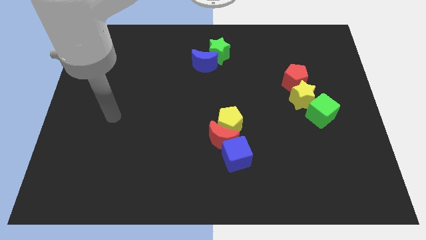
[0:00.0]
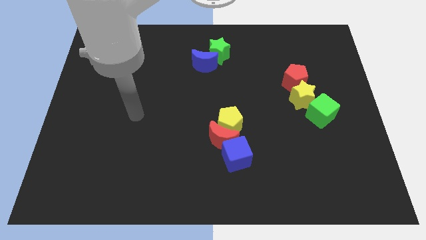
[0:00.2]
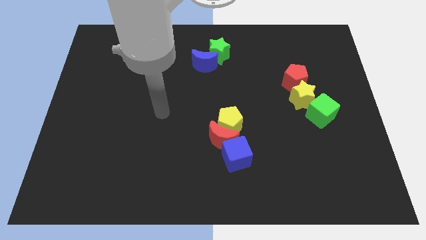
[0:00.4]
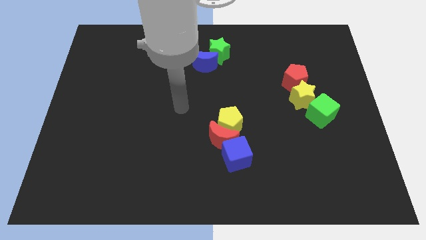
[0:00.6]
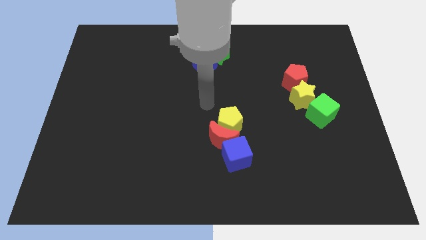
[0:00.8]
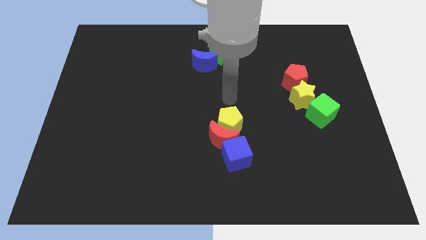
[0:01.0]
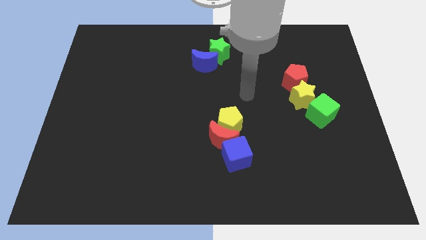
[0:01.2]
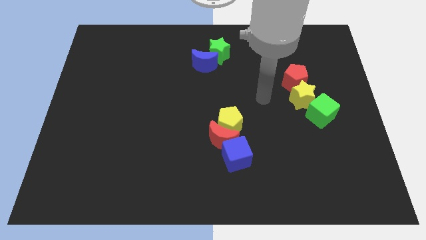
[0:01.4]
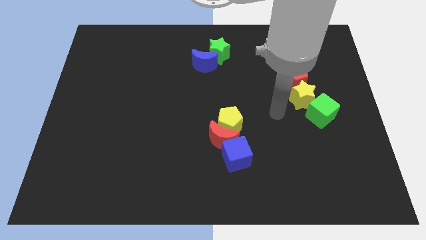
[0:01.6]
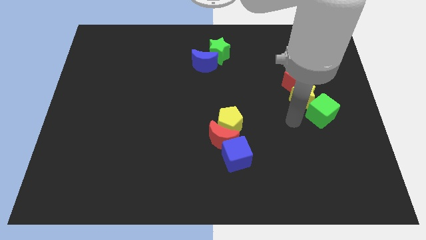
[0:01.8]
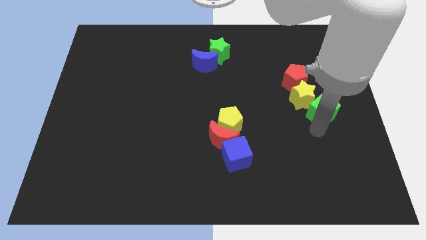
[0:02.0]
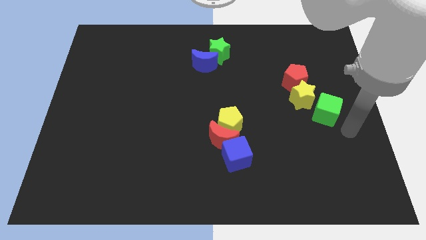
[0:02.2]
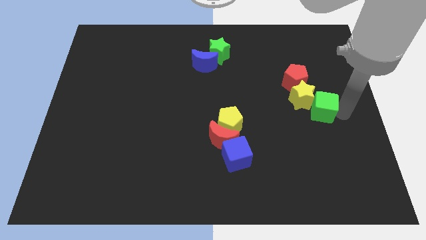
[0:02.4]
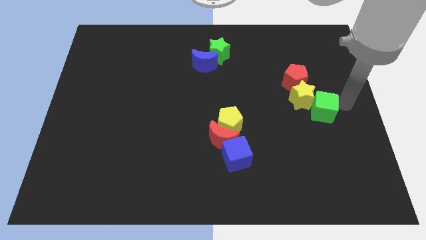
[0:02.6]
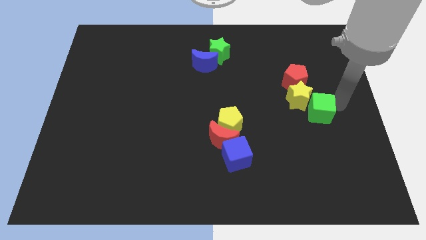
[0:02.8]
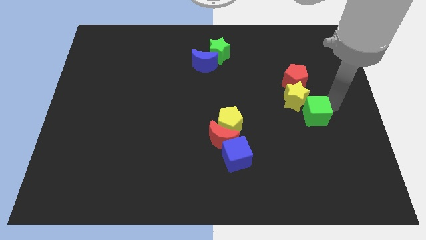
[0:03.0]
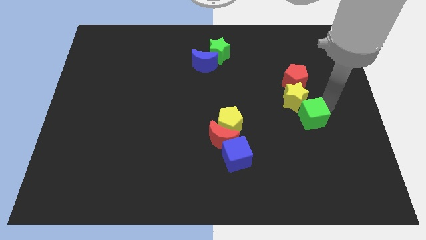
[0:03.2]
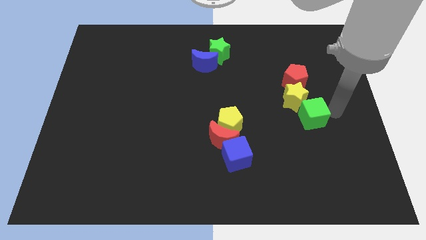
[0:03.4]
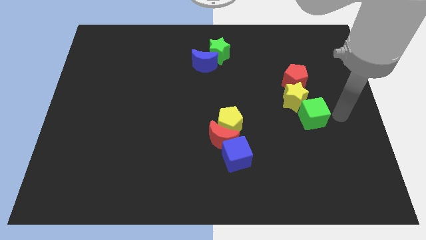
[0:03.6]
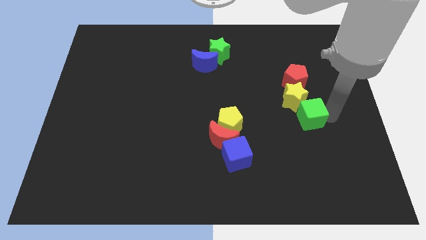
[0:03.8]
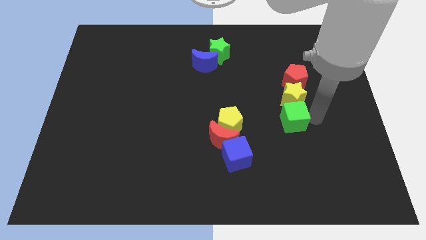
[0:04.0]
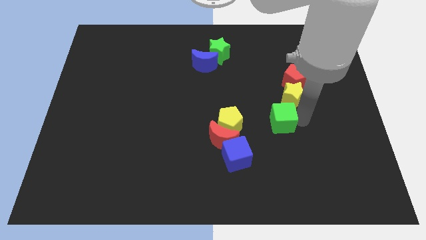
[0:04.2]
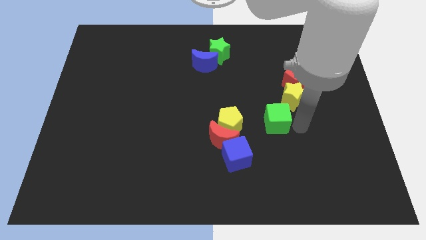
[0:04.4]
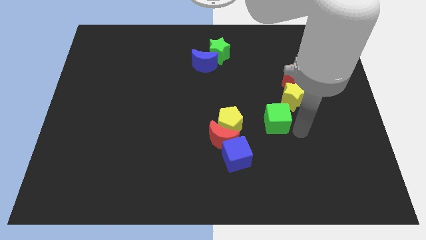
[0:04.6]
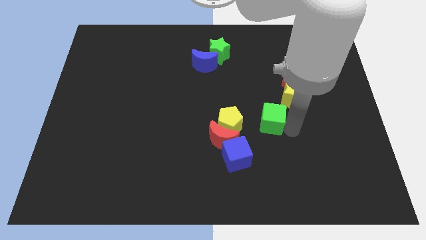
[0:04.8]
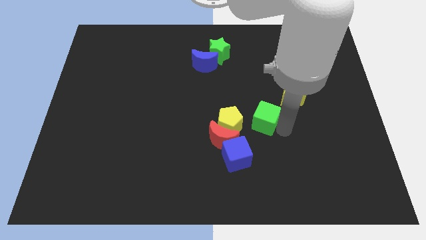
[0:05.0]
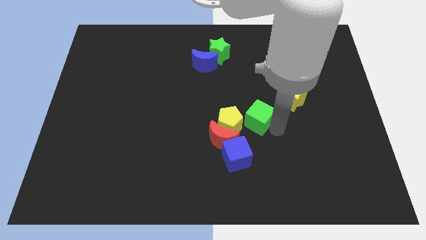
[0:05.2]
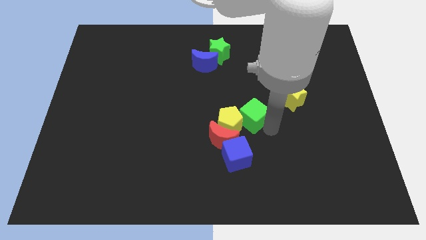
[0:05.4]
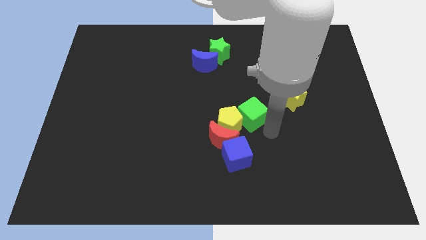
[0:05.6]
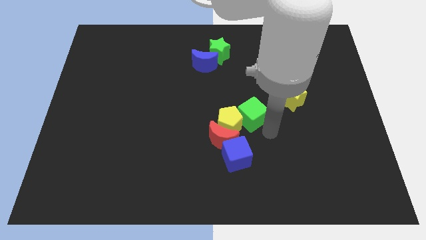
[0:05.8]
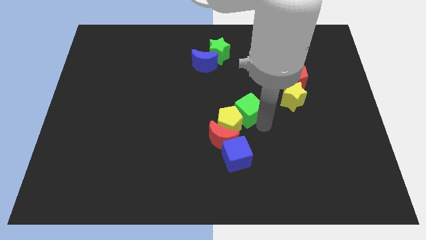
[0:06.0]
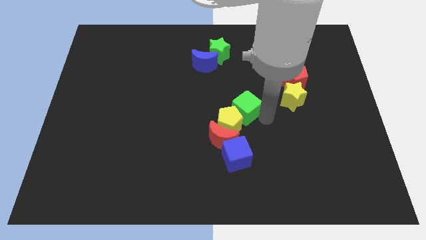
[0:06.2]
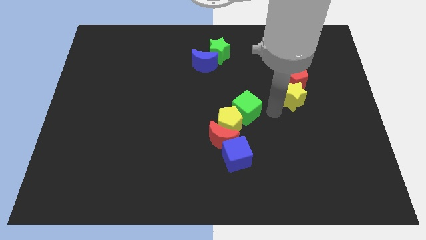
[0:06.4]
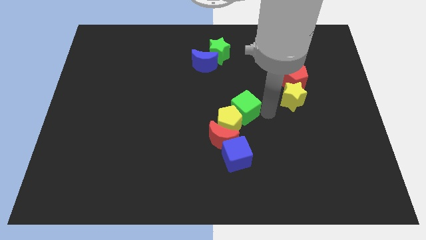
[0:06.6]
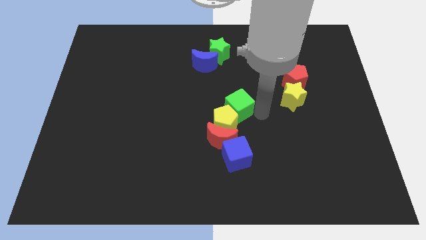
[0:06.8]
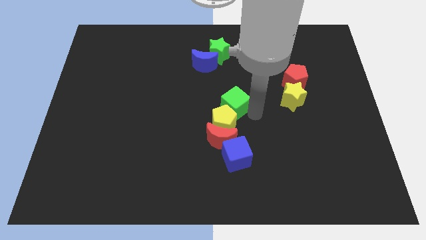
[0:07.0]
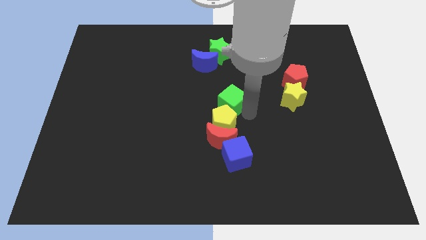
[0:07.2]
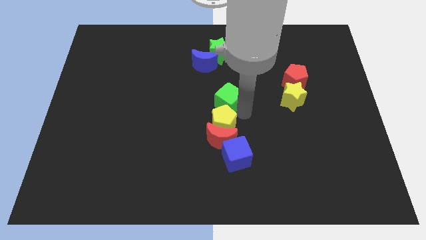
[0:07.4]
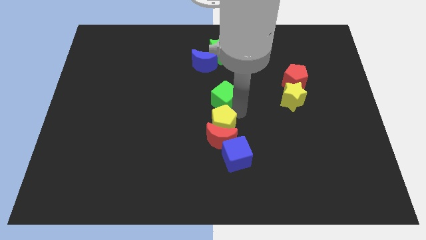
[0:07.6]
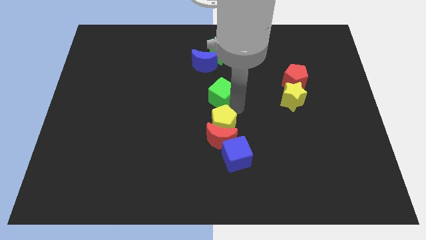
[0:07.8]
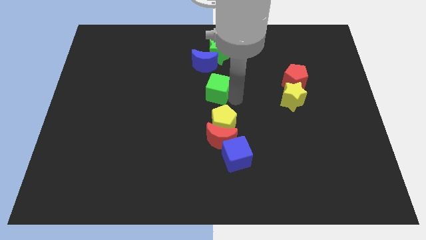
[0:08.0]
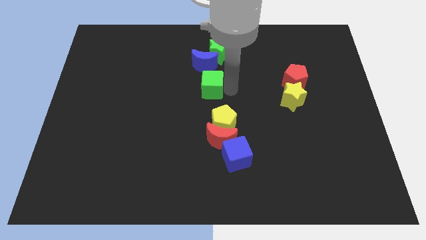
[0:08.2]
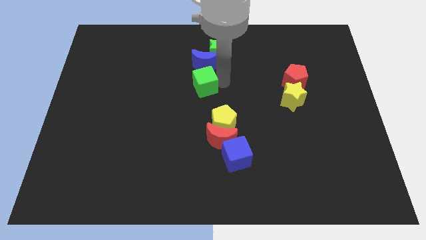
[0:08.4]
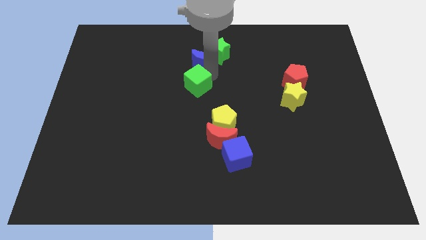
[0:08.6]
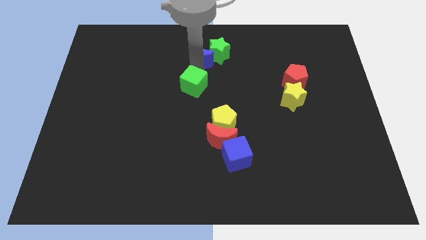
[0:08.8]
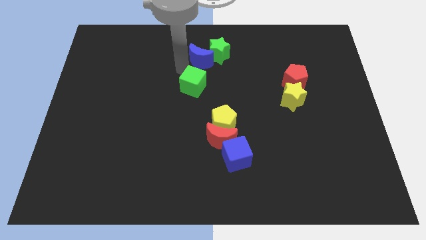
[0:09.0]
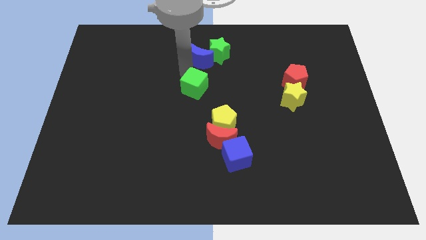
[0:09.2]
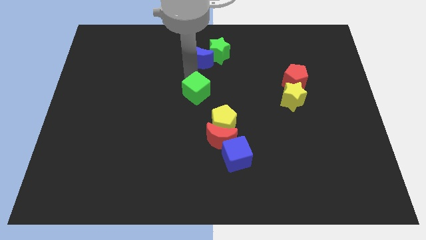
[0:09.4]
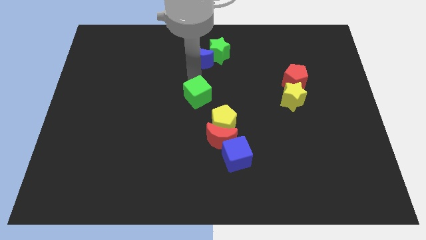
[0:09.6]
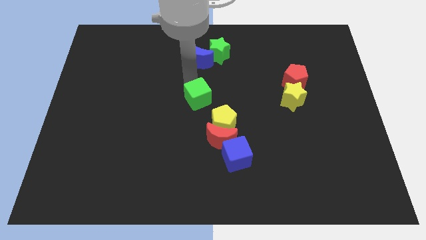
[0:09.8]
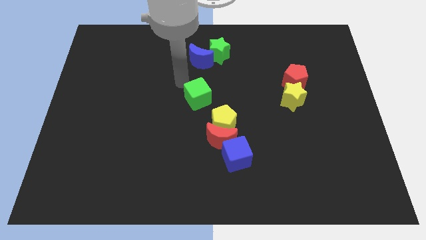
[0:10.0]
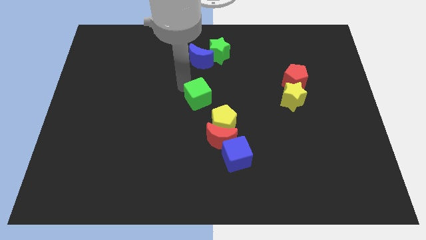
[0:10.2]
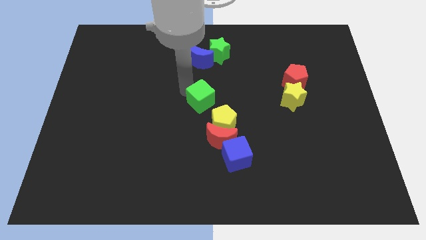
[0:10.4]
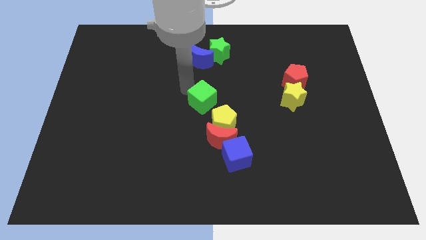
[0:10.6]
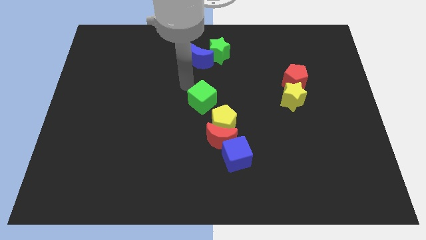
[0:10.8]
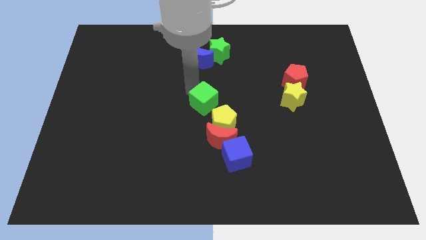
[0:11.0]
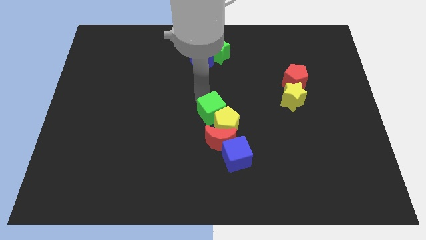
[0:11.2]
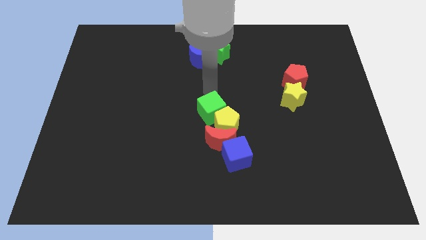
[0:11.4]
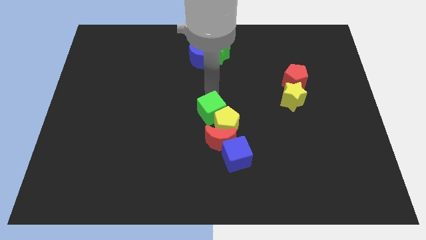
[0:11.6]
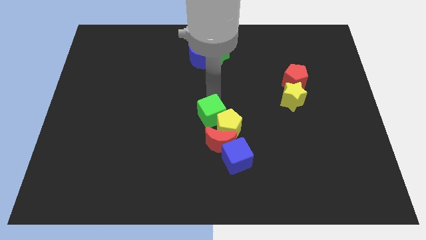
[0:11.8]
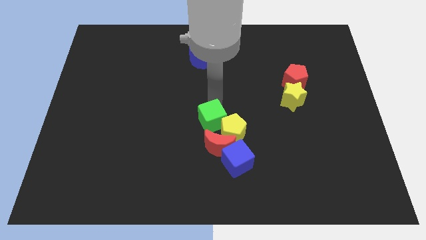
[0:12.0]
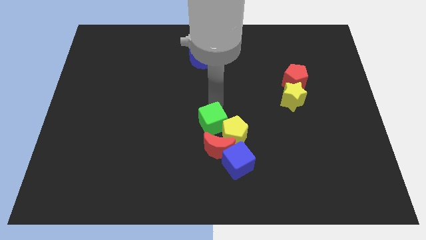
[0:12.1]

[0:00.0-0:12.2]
push the green cube to the top left of the blue cube

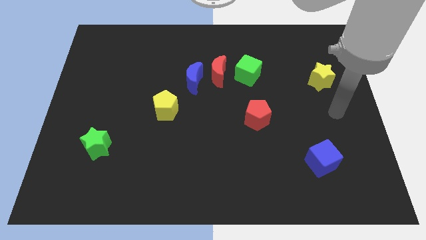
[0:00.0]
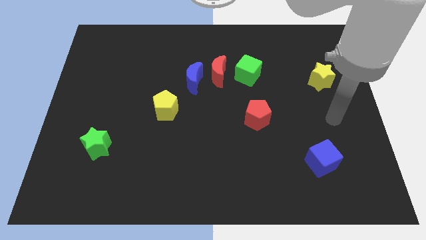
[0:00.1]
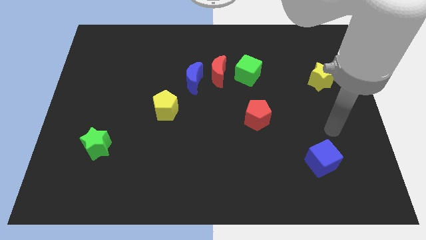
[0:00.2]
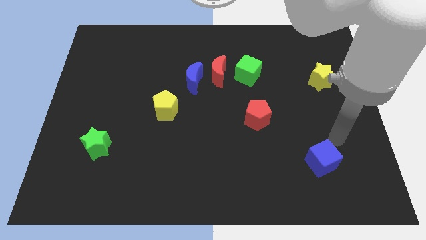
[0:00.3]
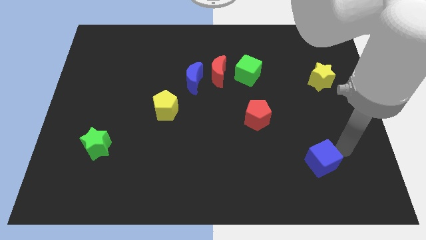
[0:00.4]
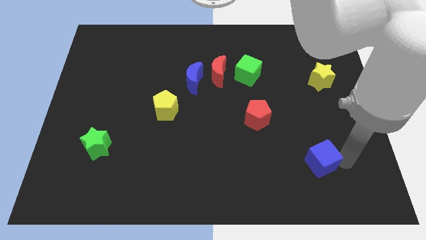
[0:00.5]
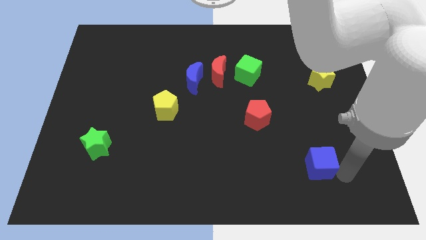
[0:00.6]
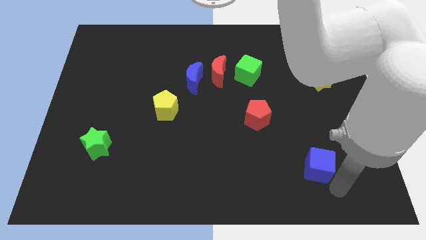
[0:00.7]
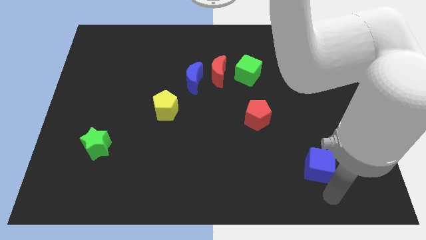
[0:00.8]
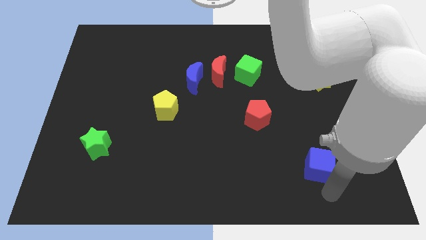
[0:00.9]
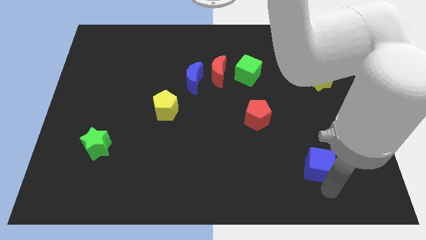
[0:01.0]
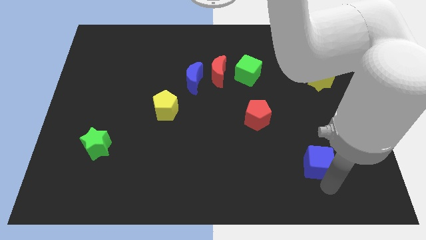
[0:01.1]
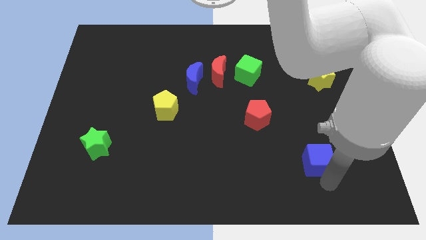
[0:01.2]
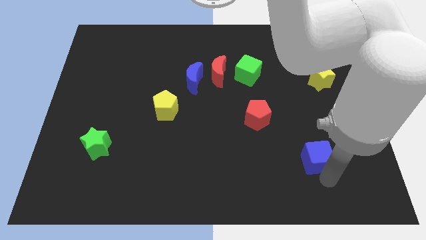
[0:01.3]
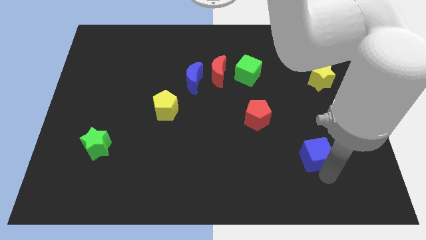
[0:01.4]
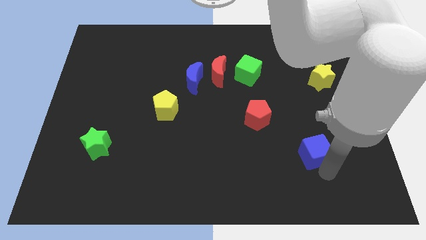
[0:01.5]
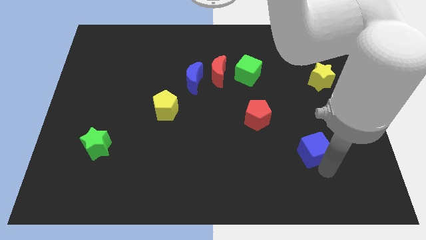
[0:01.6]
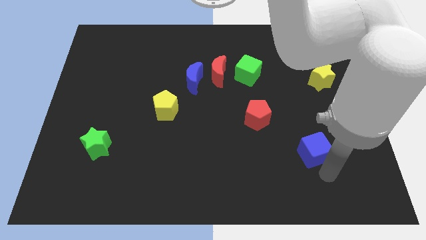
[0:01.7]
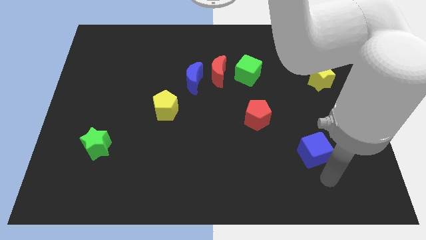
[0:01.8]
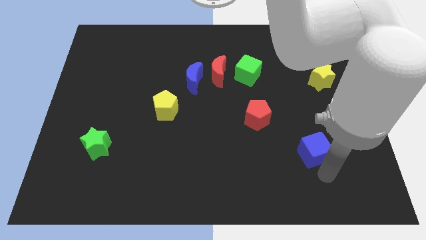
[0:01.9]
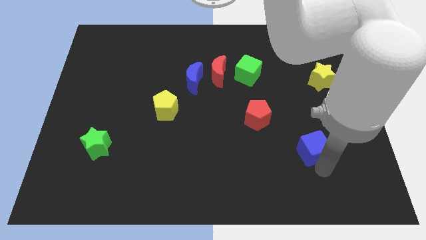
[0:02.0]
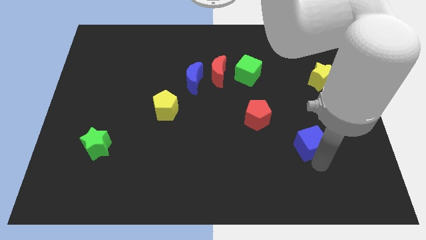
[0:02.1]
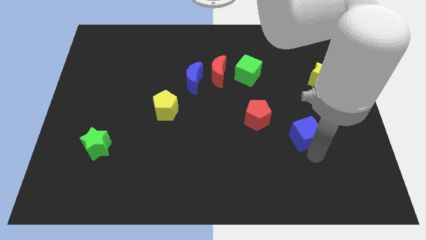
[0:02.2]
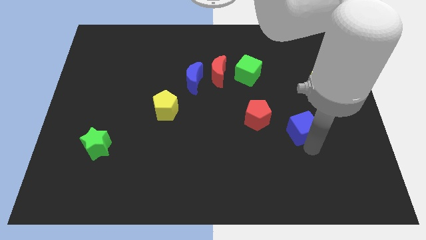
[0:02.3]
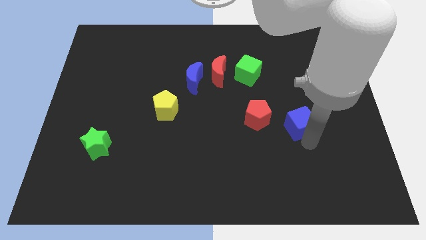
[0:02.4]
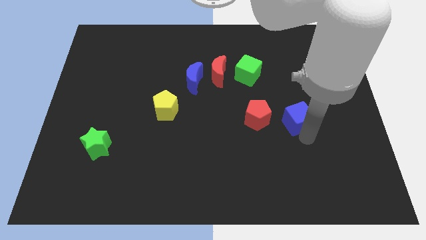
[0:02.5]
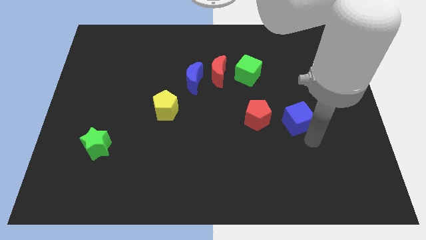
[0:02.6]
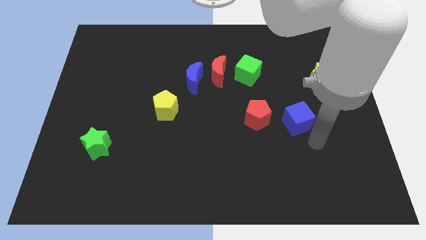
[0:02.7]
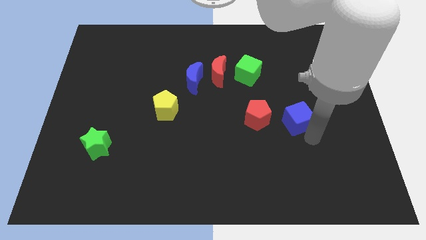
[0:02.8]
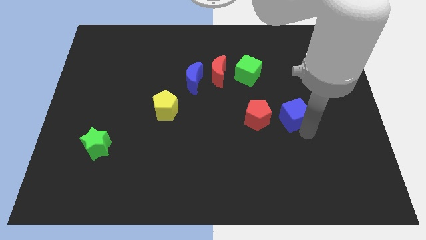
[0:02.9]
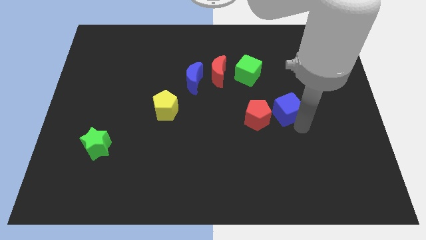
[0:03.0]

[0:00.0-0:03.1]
put the blue cube to the top right side of the red pentagon
